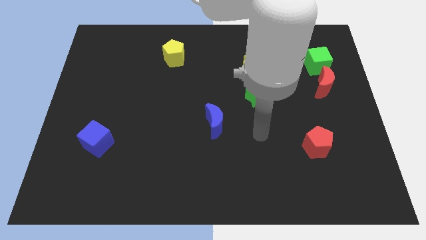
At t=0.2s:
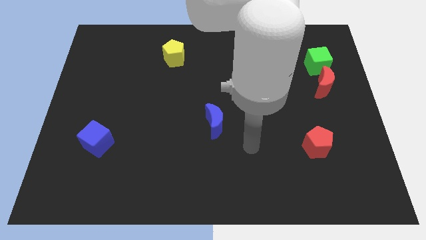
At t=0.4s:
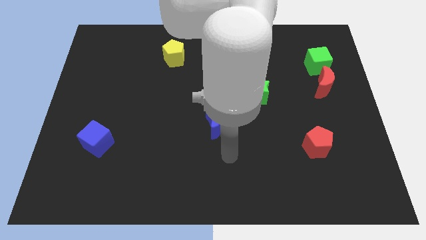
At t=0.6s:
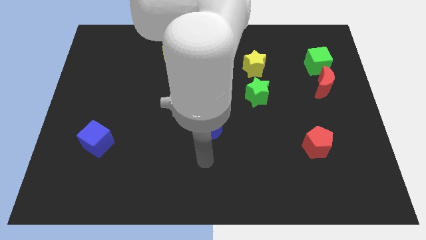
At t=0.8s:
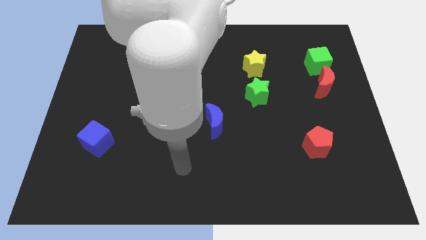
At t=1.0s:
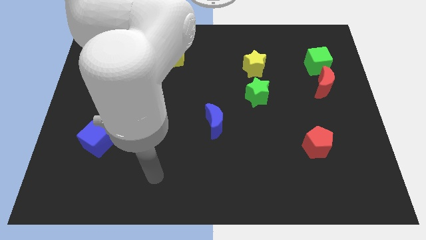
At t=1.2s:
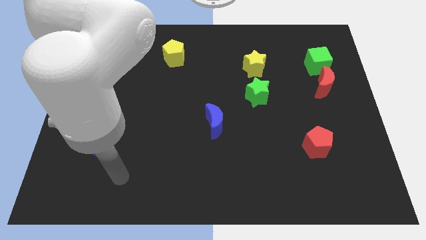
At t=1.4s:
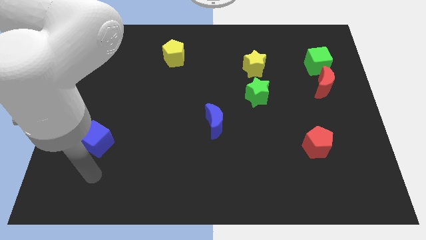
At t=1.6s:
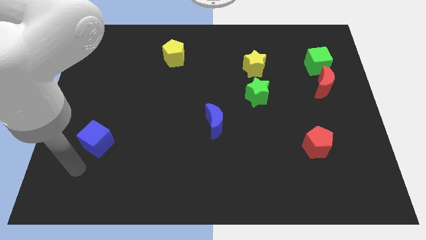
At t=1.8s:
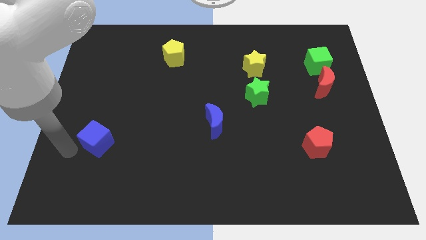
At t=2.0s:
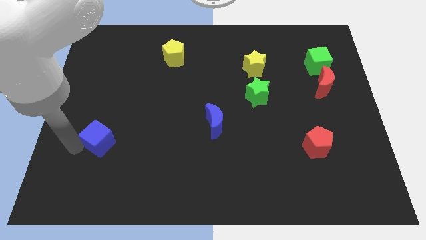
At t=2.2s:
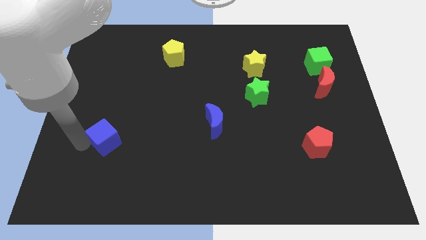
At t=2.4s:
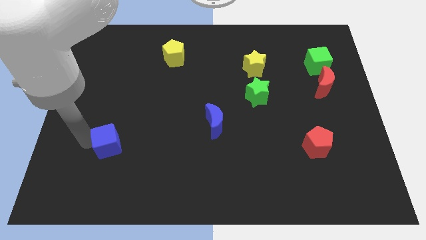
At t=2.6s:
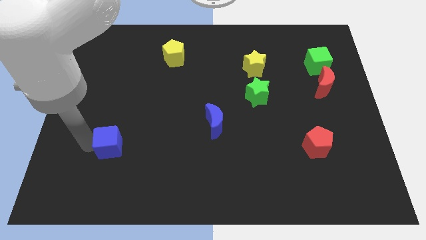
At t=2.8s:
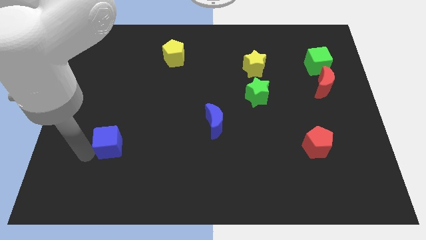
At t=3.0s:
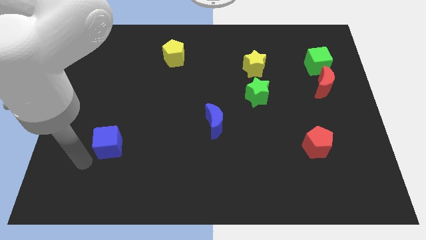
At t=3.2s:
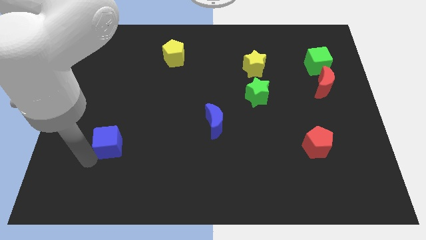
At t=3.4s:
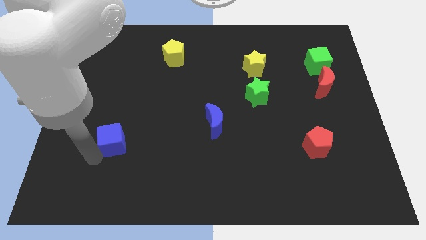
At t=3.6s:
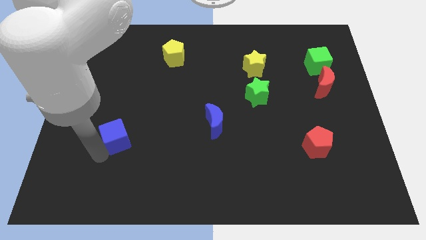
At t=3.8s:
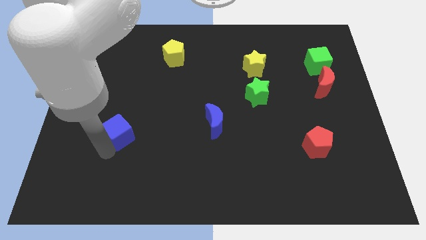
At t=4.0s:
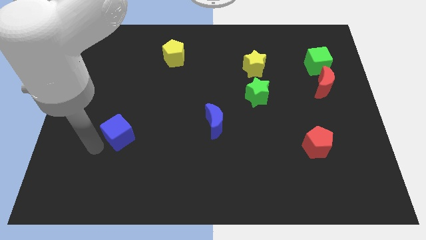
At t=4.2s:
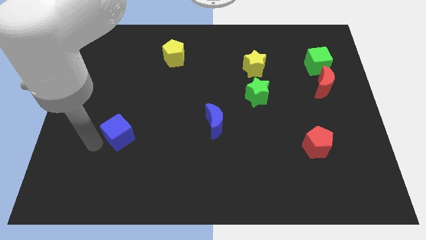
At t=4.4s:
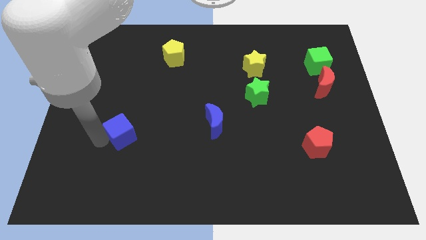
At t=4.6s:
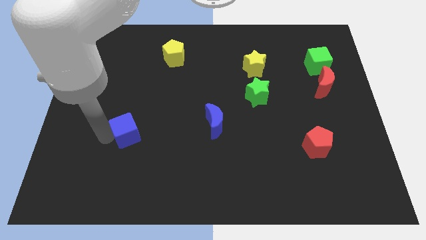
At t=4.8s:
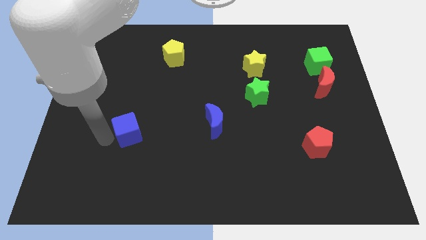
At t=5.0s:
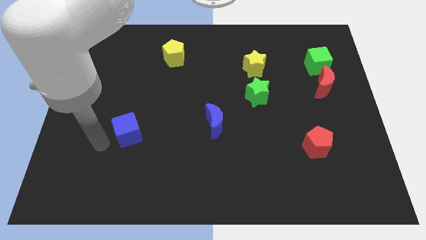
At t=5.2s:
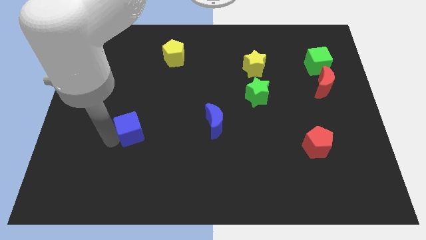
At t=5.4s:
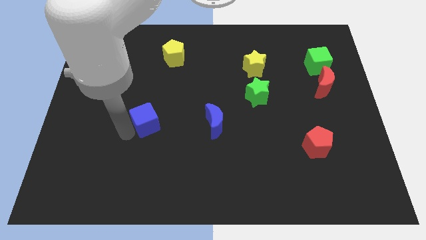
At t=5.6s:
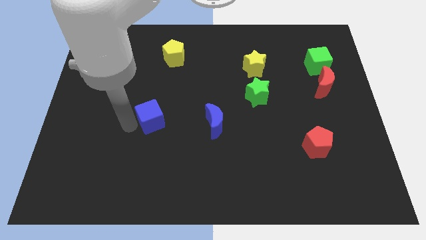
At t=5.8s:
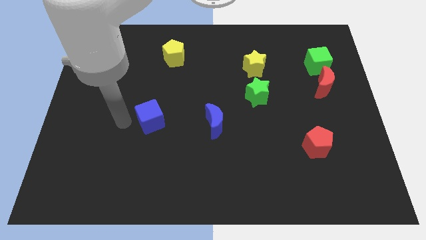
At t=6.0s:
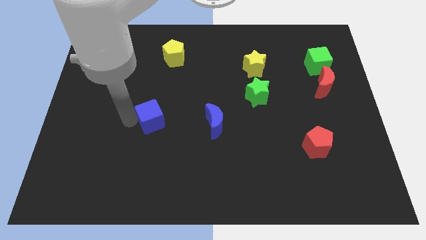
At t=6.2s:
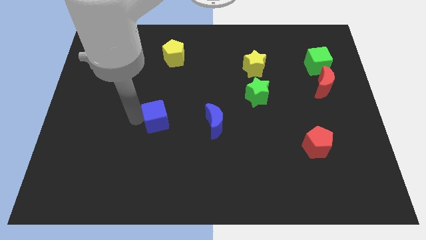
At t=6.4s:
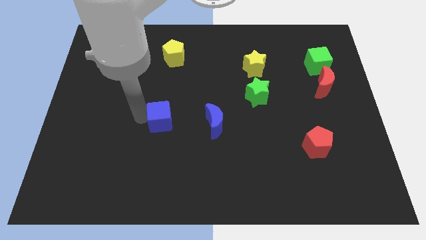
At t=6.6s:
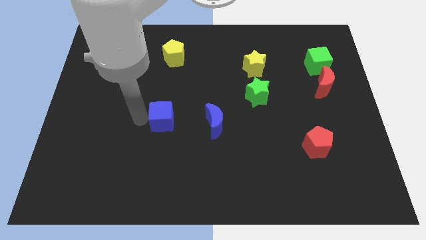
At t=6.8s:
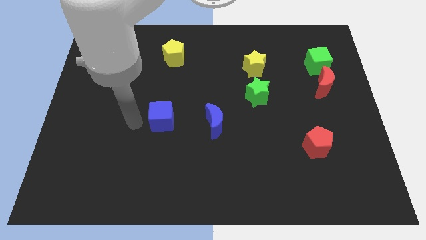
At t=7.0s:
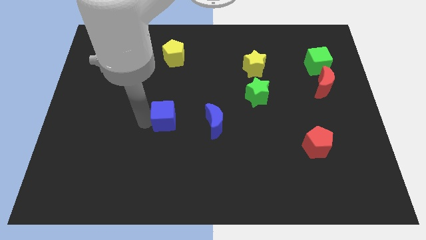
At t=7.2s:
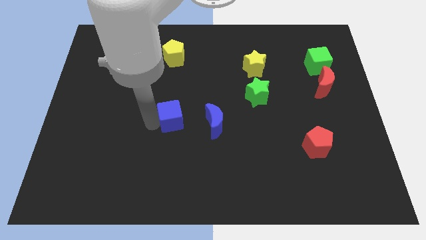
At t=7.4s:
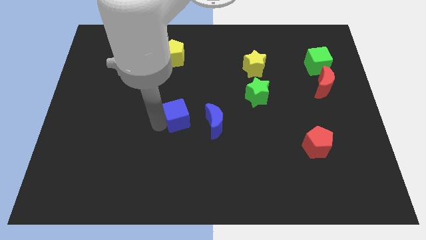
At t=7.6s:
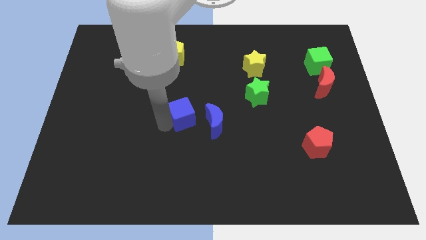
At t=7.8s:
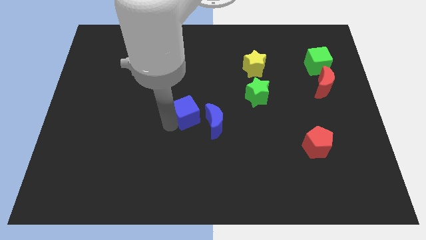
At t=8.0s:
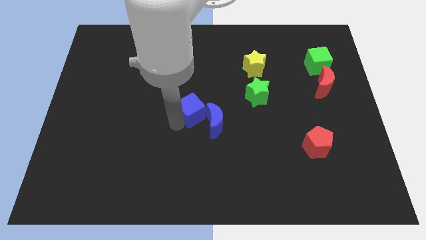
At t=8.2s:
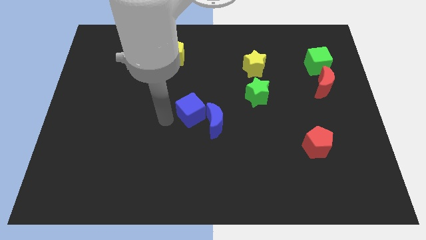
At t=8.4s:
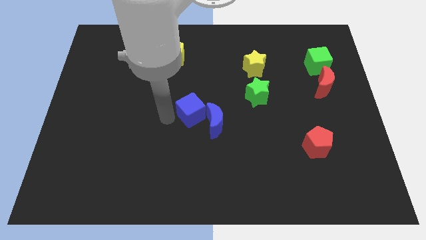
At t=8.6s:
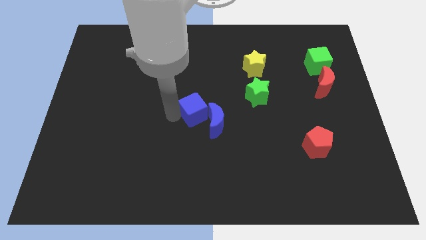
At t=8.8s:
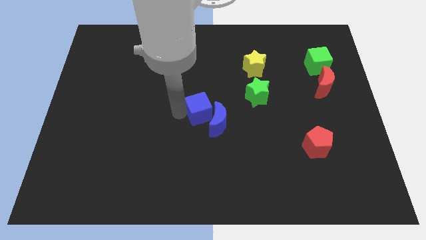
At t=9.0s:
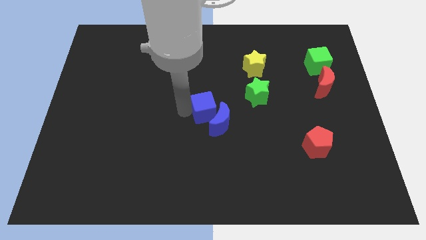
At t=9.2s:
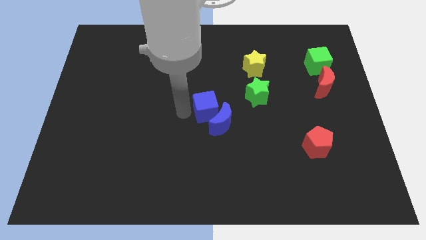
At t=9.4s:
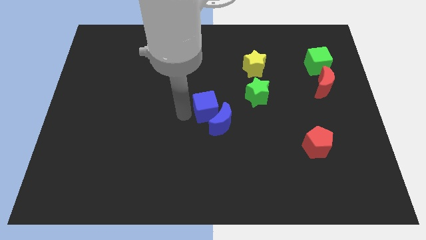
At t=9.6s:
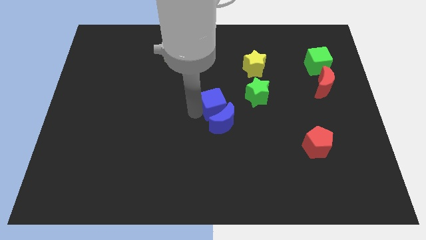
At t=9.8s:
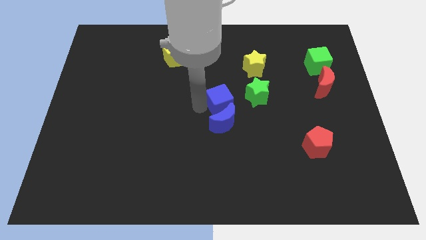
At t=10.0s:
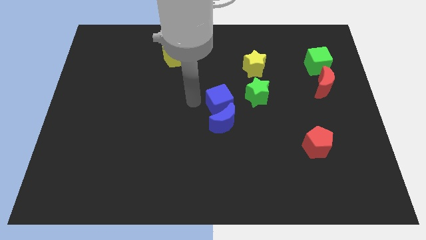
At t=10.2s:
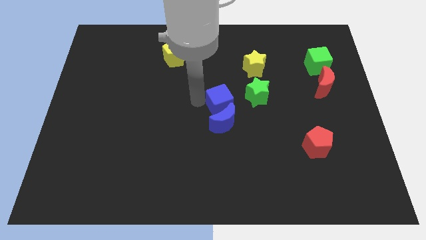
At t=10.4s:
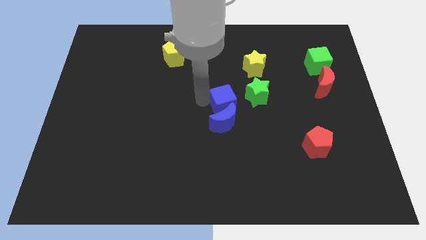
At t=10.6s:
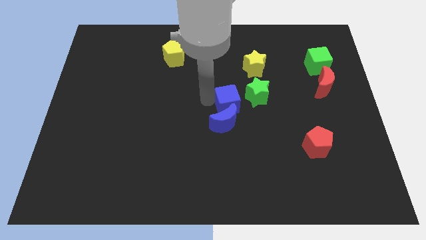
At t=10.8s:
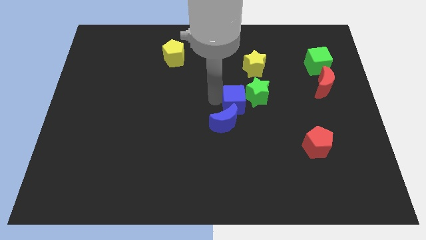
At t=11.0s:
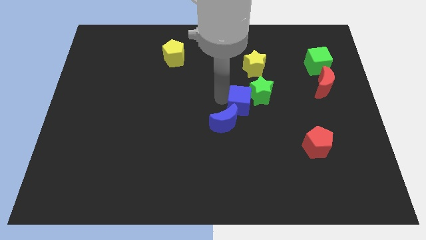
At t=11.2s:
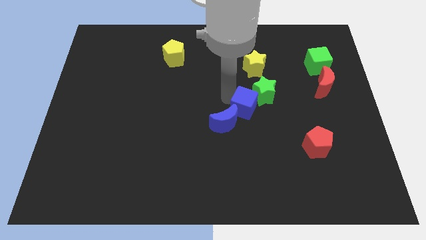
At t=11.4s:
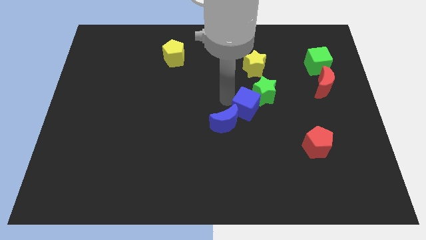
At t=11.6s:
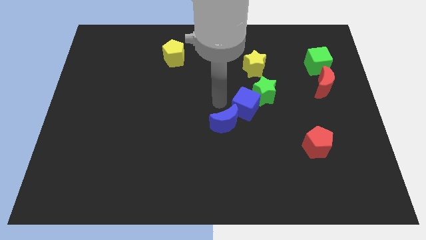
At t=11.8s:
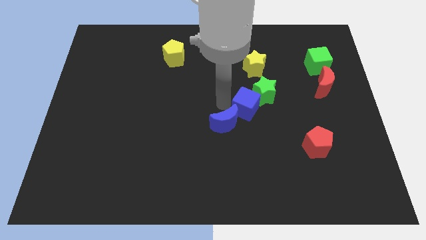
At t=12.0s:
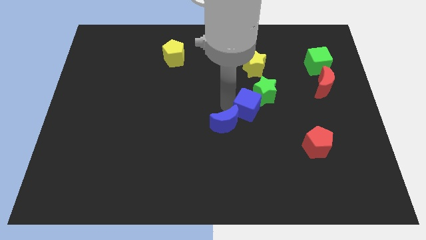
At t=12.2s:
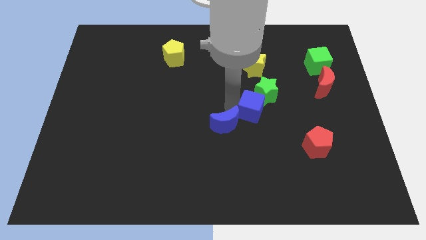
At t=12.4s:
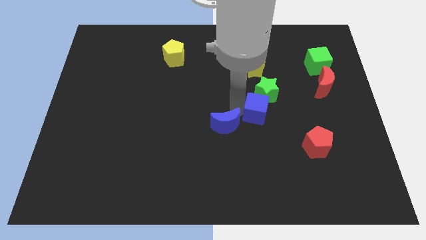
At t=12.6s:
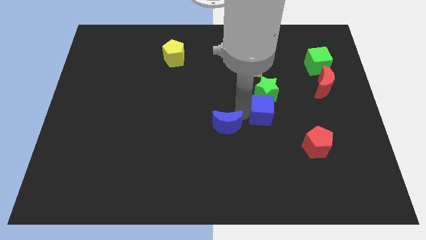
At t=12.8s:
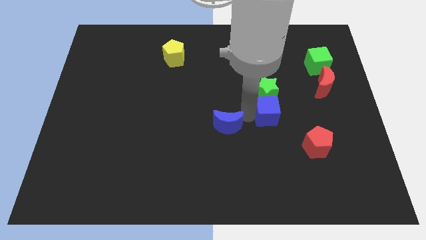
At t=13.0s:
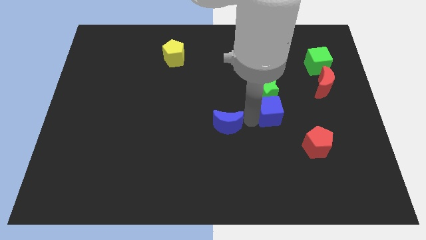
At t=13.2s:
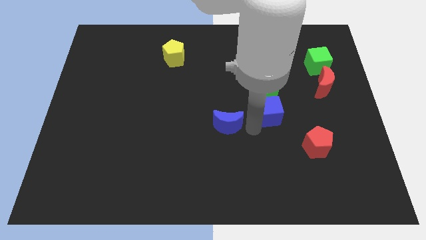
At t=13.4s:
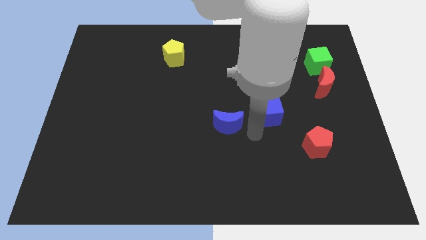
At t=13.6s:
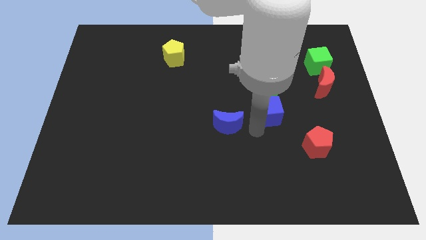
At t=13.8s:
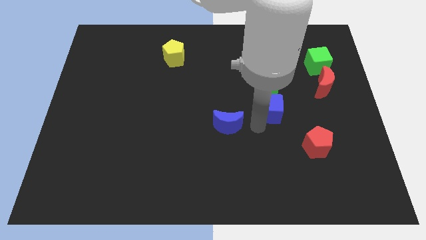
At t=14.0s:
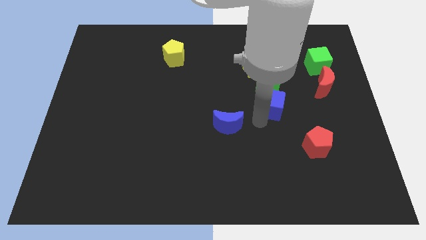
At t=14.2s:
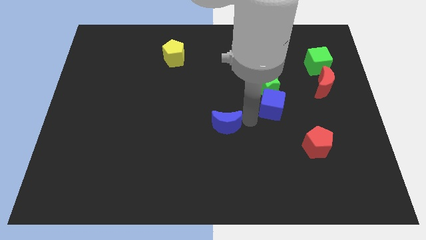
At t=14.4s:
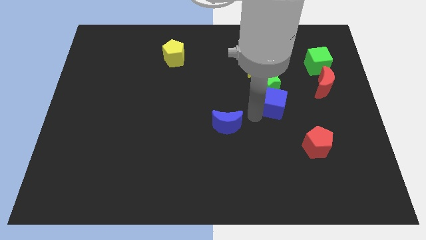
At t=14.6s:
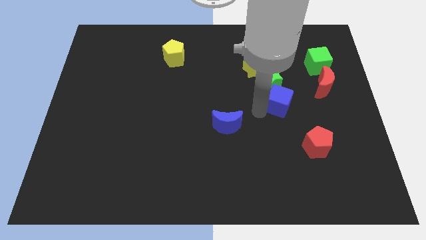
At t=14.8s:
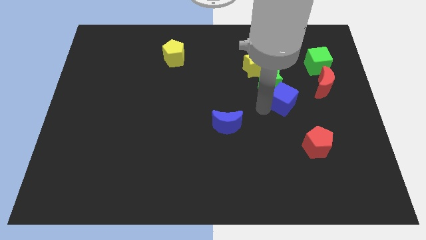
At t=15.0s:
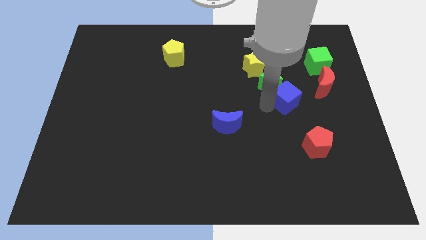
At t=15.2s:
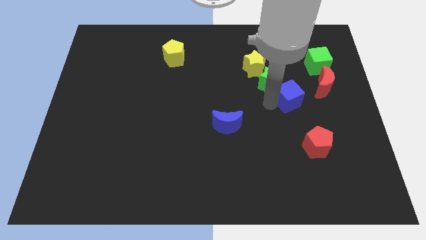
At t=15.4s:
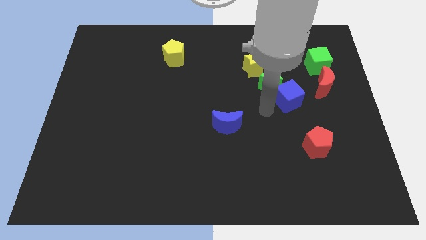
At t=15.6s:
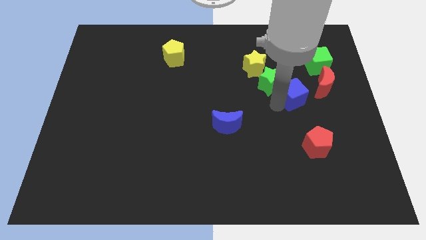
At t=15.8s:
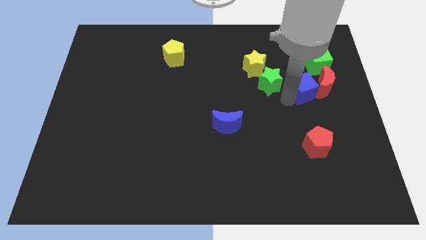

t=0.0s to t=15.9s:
slide the blue cube to the red moon
